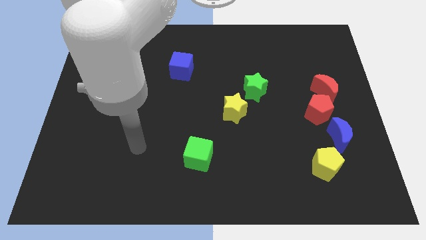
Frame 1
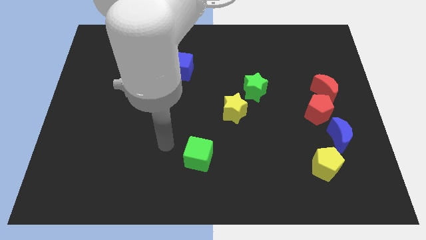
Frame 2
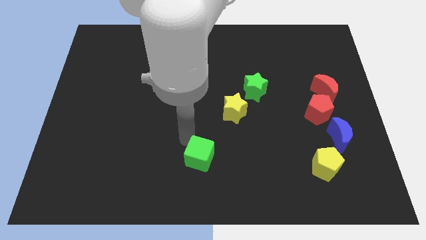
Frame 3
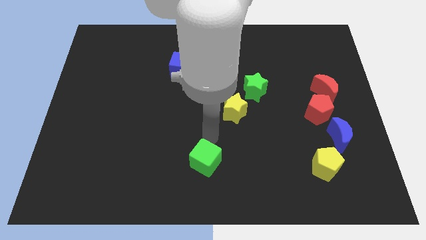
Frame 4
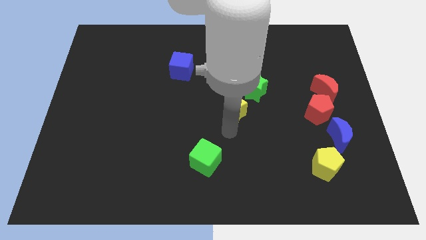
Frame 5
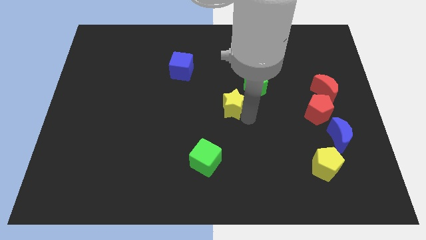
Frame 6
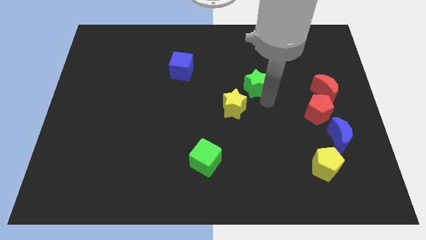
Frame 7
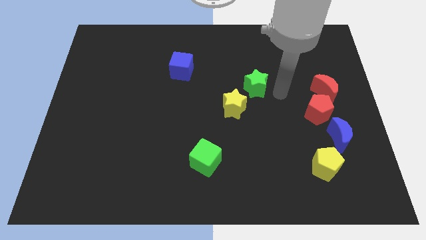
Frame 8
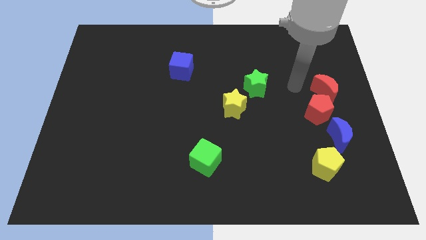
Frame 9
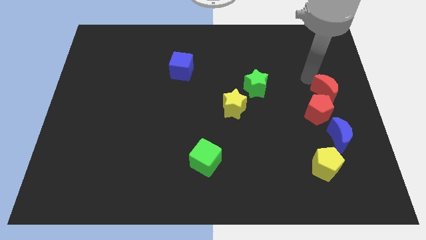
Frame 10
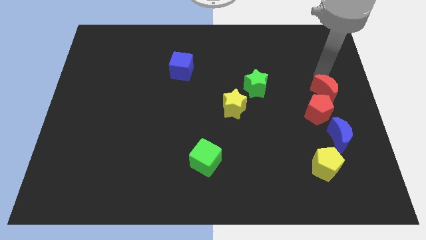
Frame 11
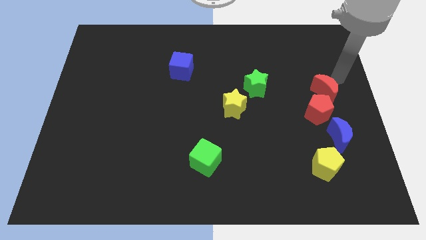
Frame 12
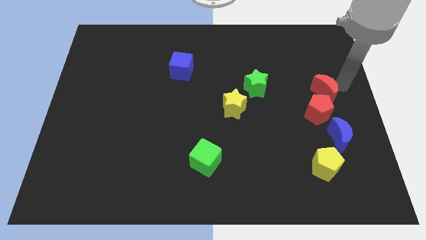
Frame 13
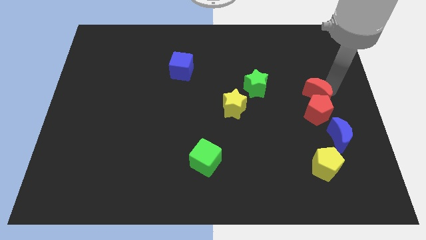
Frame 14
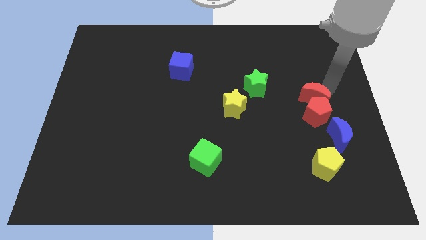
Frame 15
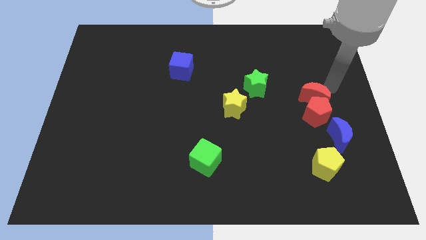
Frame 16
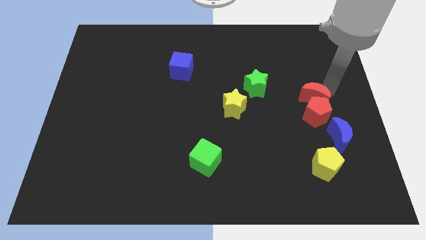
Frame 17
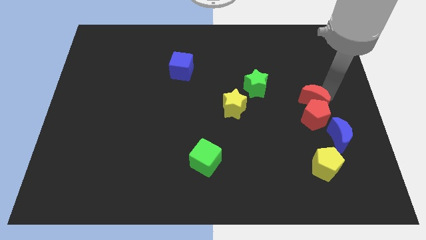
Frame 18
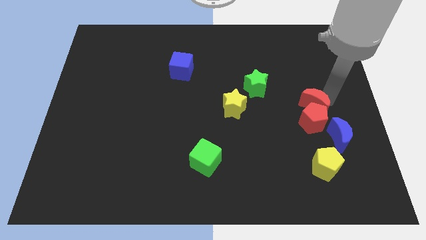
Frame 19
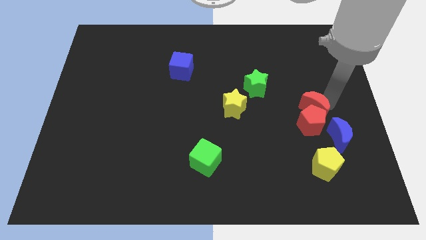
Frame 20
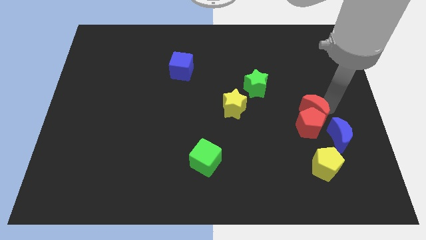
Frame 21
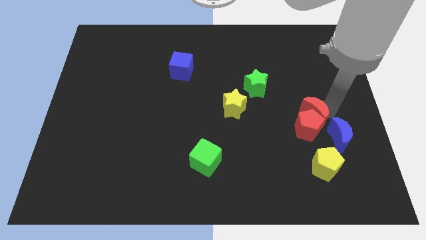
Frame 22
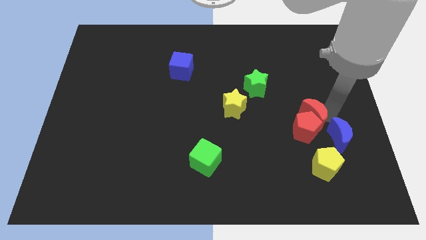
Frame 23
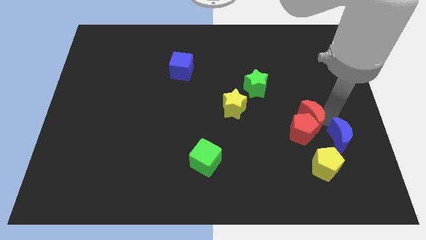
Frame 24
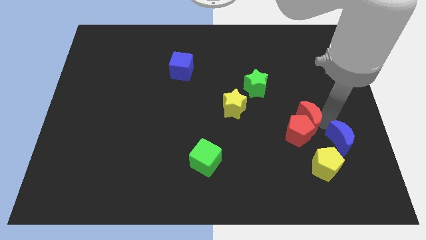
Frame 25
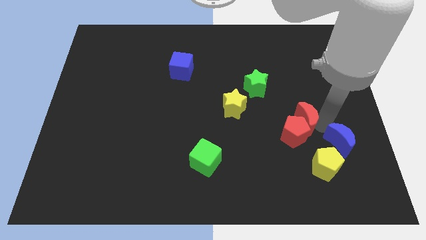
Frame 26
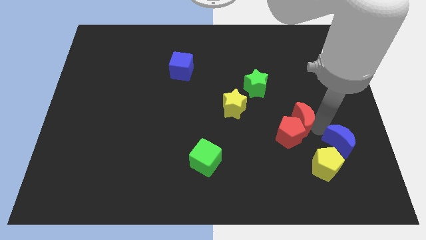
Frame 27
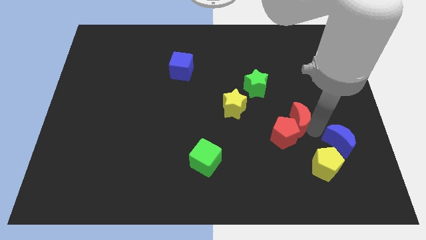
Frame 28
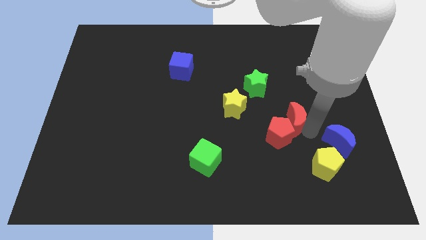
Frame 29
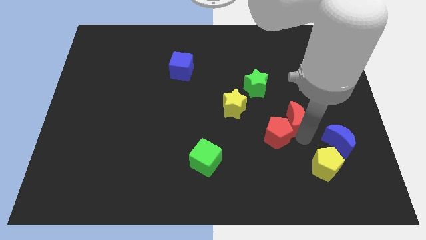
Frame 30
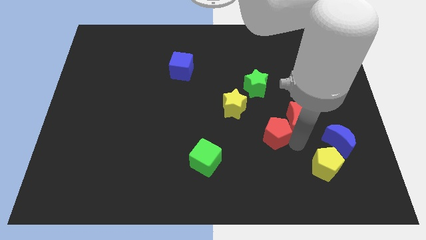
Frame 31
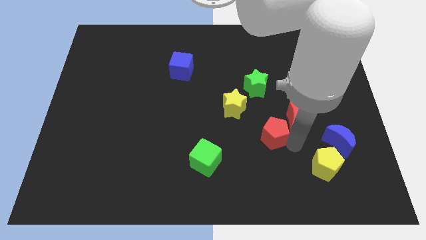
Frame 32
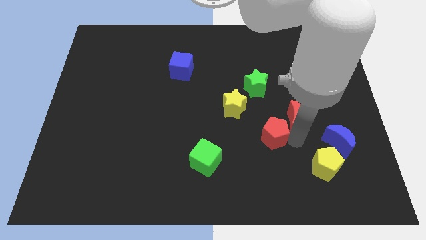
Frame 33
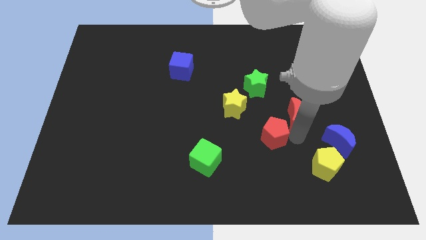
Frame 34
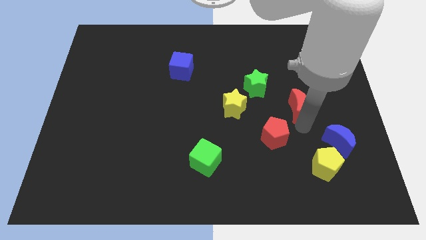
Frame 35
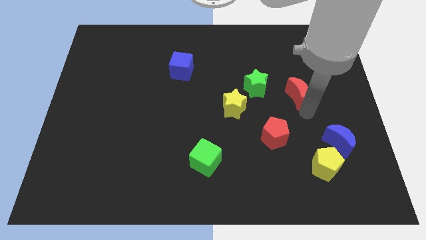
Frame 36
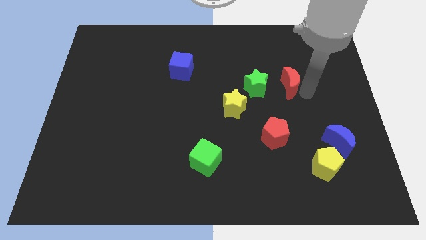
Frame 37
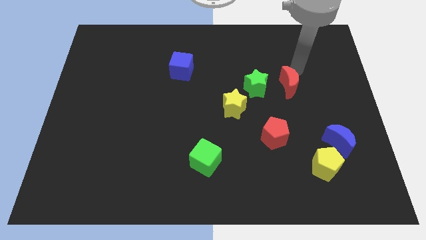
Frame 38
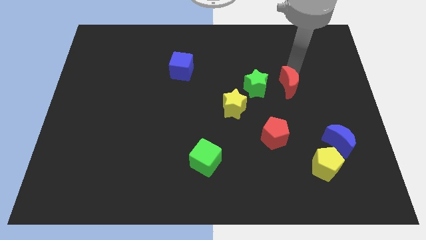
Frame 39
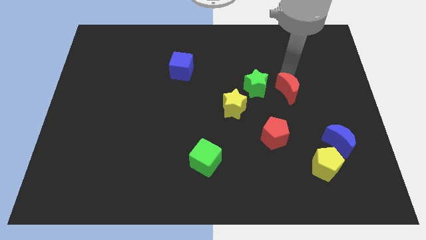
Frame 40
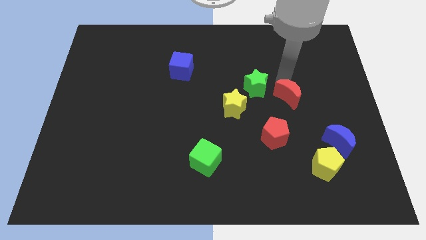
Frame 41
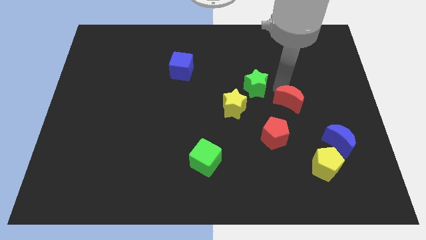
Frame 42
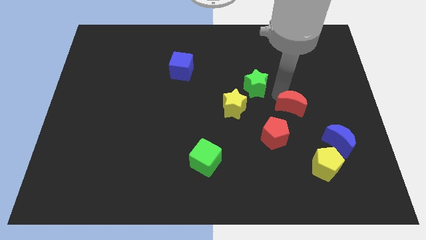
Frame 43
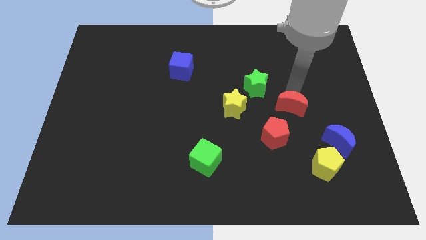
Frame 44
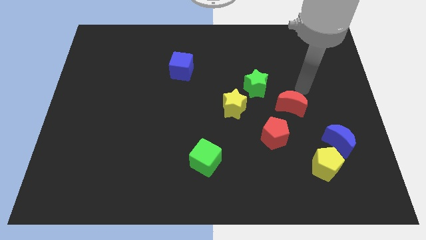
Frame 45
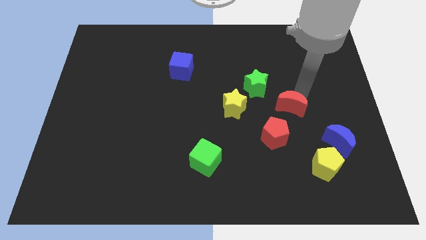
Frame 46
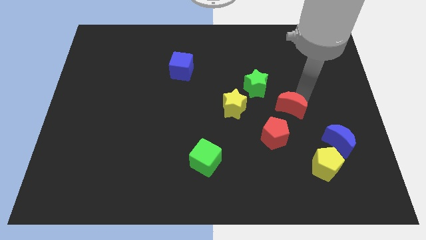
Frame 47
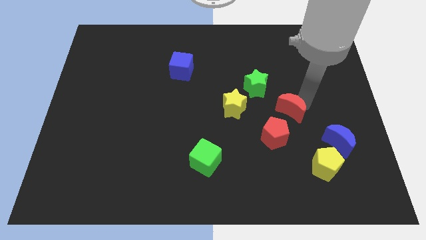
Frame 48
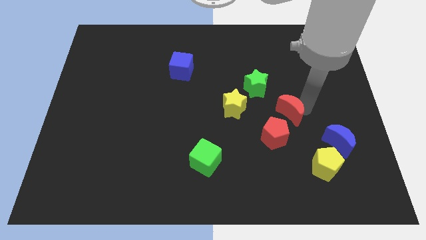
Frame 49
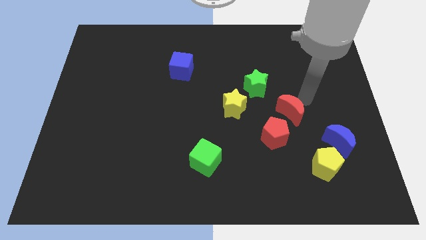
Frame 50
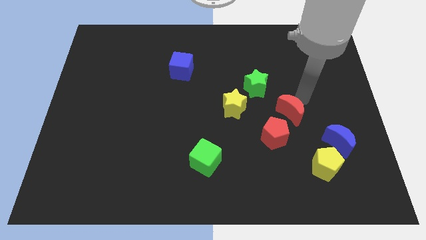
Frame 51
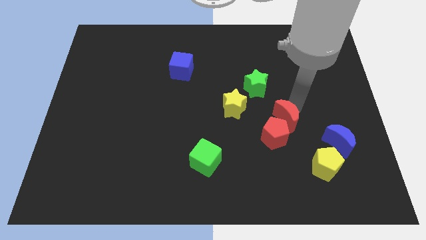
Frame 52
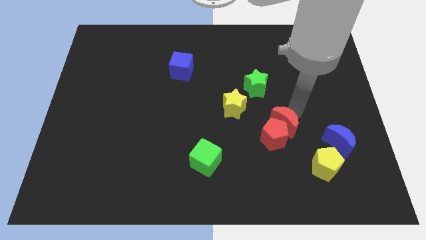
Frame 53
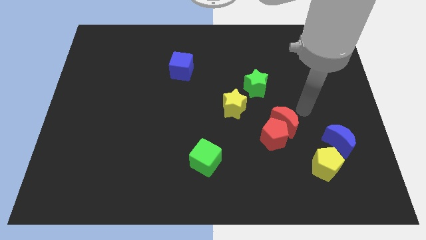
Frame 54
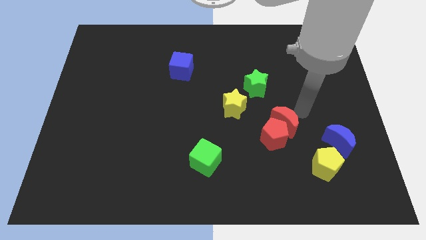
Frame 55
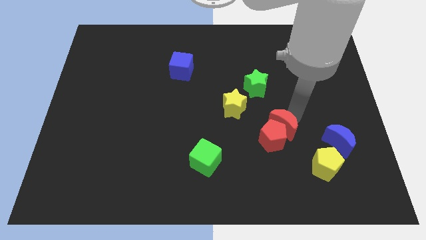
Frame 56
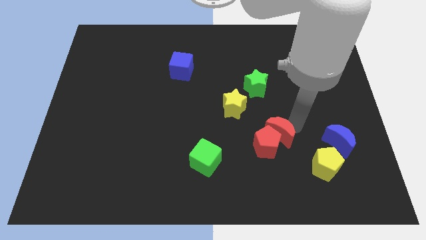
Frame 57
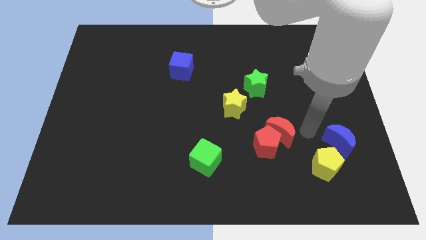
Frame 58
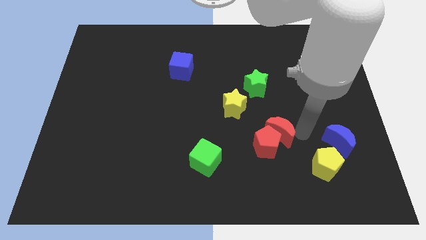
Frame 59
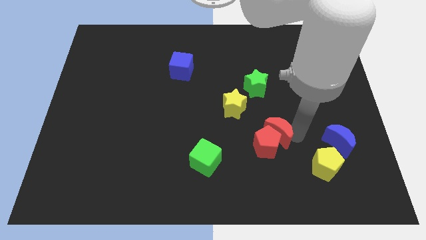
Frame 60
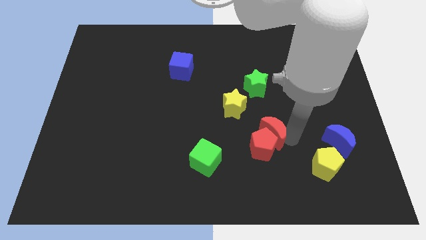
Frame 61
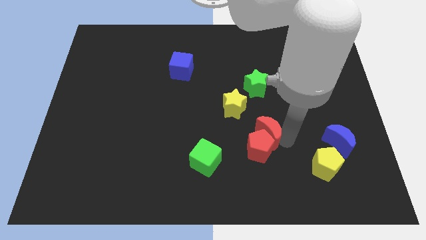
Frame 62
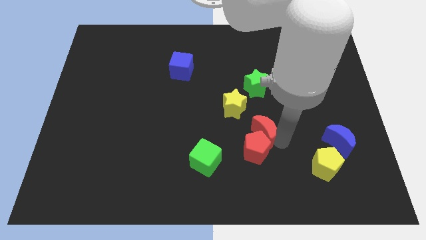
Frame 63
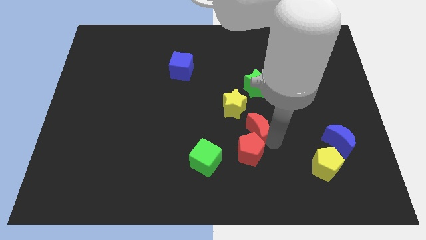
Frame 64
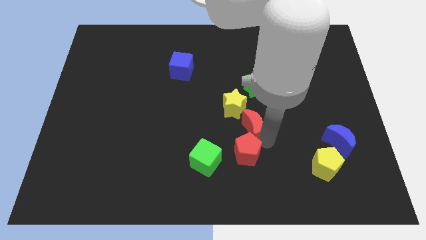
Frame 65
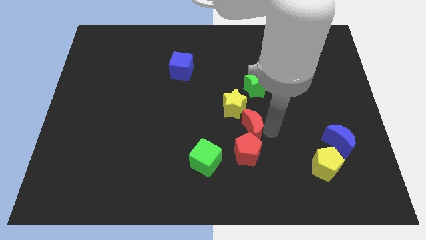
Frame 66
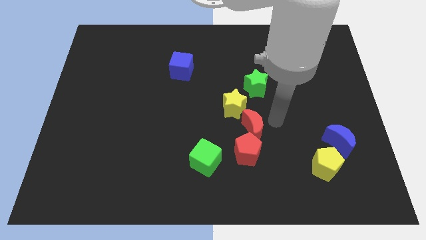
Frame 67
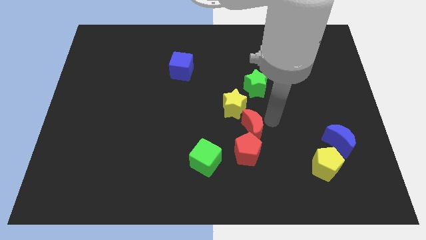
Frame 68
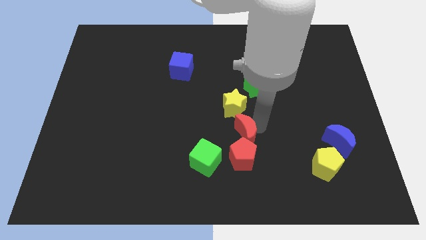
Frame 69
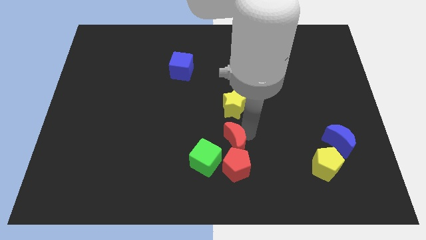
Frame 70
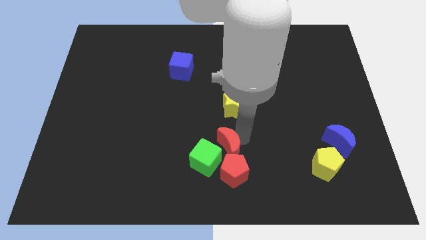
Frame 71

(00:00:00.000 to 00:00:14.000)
move the red moon next to the green cube
